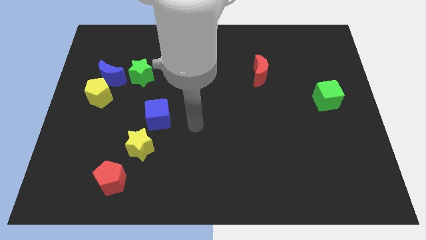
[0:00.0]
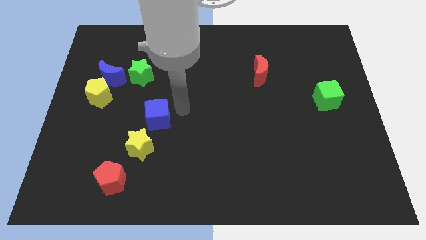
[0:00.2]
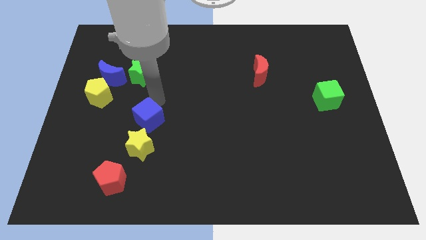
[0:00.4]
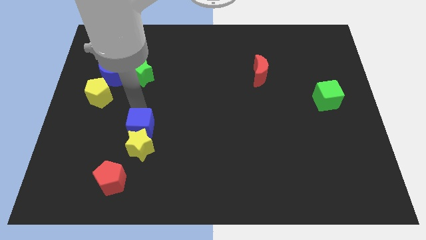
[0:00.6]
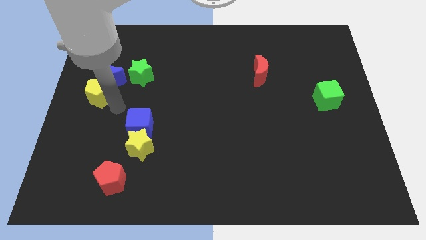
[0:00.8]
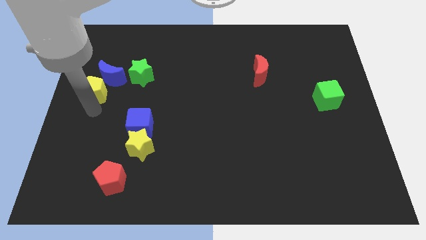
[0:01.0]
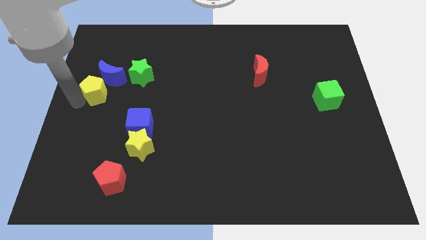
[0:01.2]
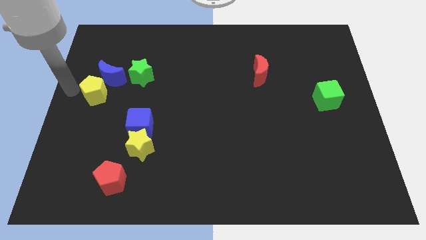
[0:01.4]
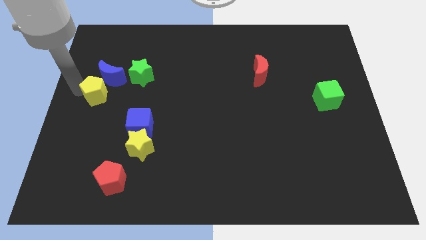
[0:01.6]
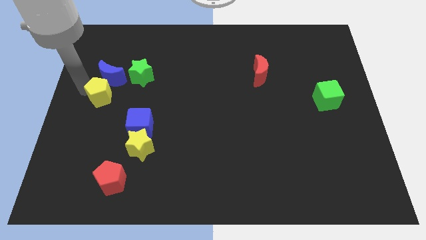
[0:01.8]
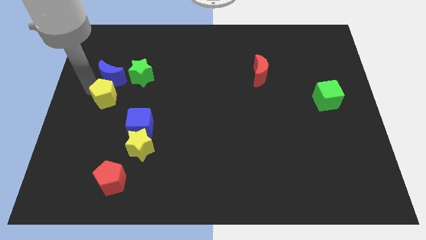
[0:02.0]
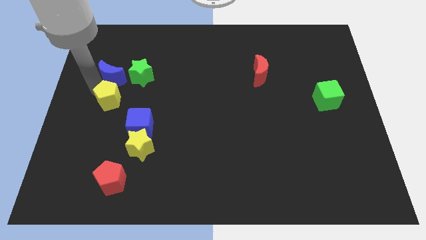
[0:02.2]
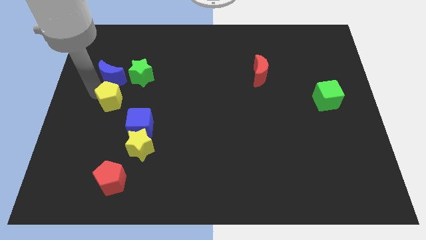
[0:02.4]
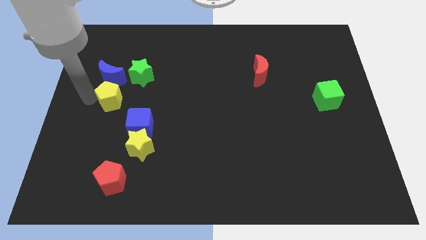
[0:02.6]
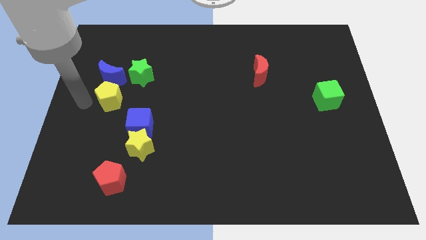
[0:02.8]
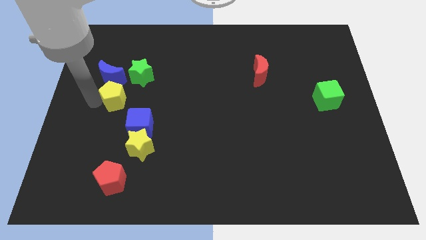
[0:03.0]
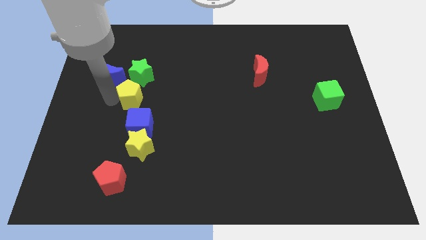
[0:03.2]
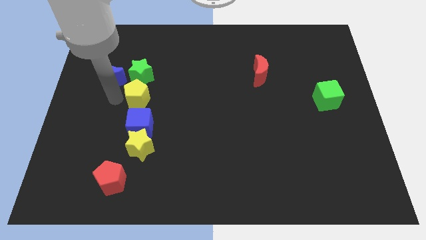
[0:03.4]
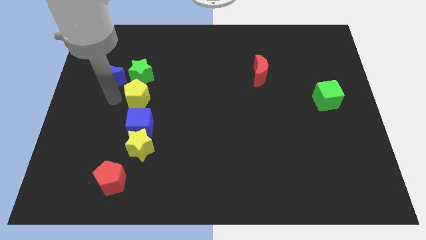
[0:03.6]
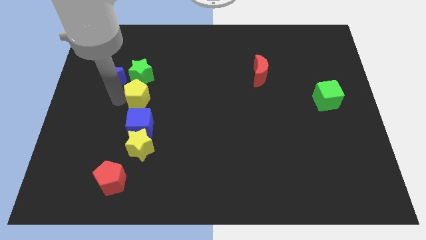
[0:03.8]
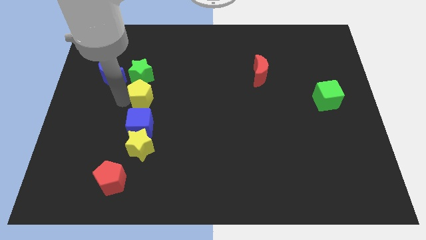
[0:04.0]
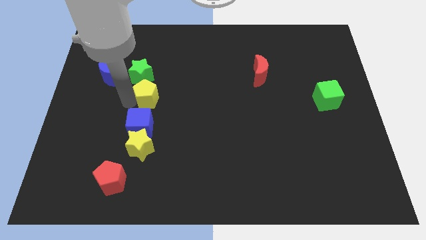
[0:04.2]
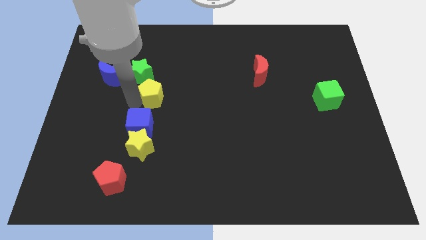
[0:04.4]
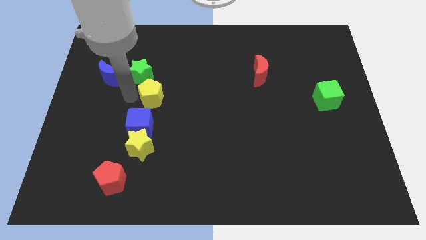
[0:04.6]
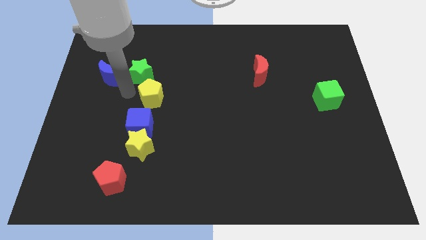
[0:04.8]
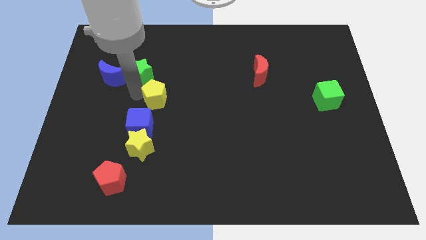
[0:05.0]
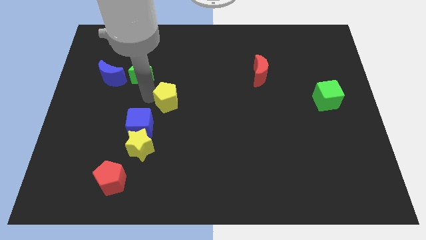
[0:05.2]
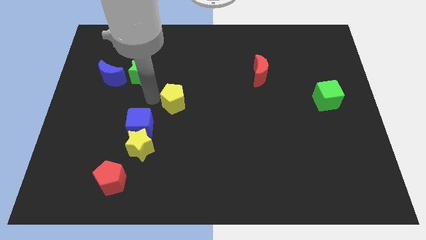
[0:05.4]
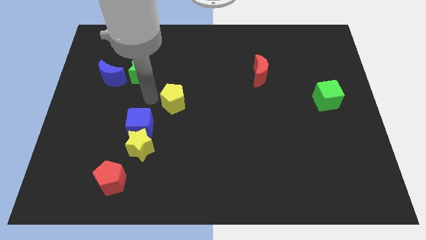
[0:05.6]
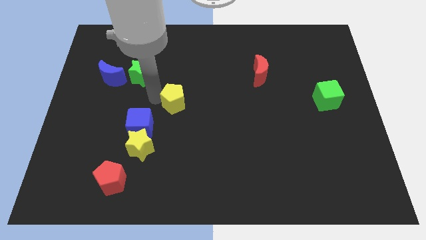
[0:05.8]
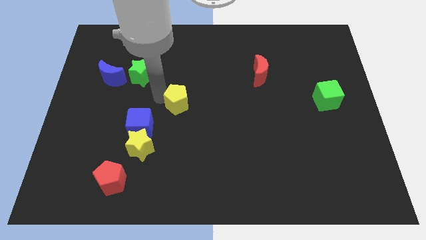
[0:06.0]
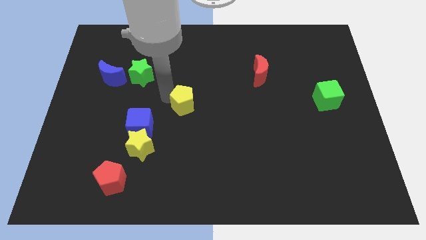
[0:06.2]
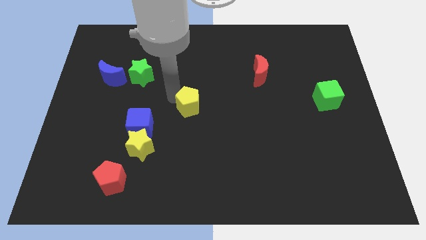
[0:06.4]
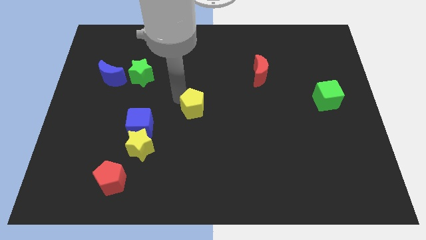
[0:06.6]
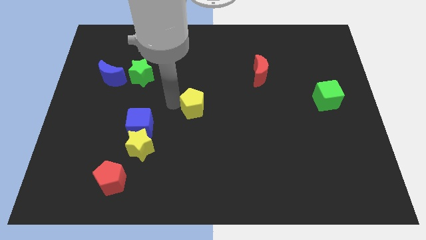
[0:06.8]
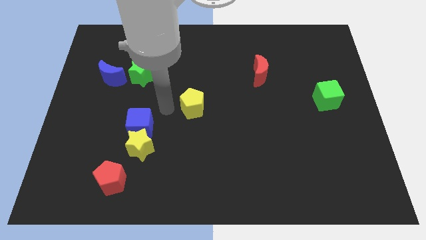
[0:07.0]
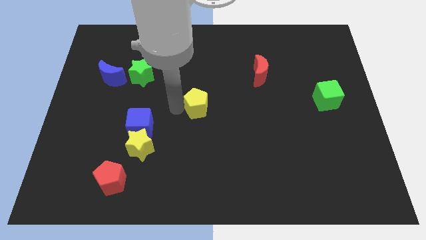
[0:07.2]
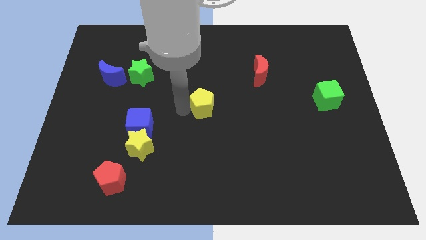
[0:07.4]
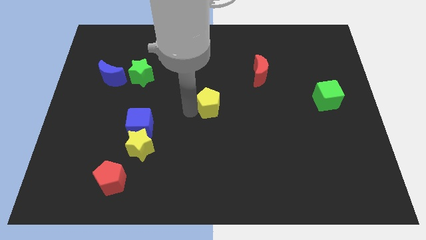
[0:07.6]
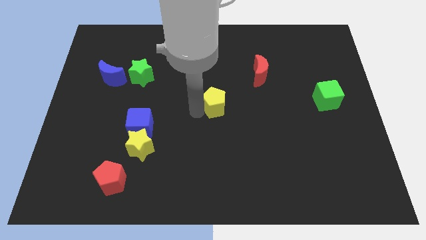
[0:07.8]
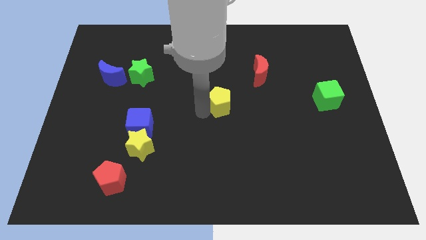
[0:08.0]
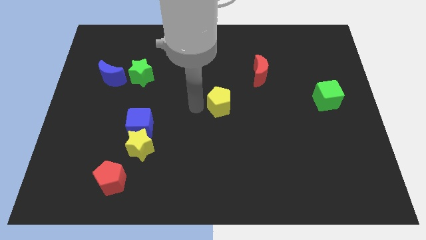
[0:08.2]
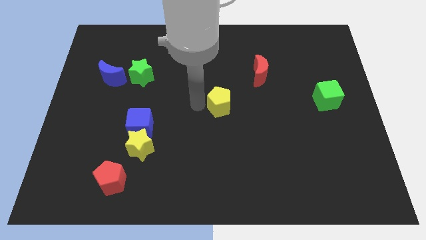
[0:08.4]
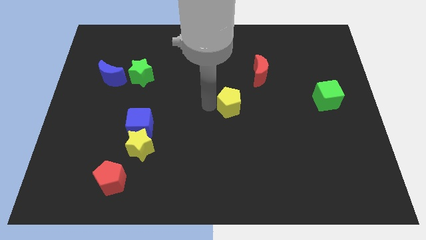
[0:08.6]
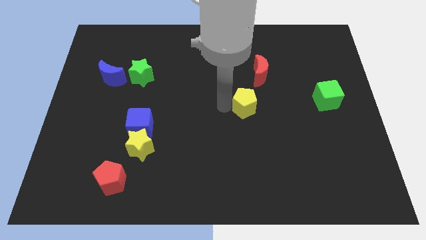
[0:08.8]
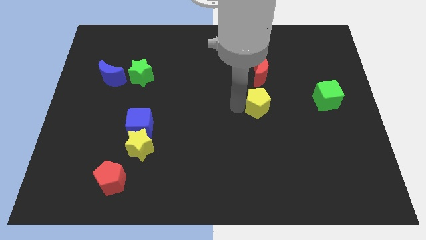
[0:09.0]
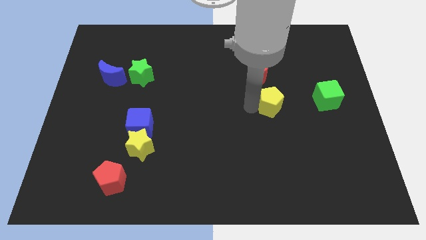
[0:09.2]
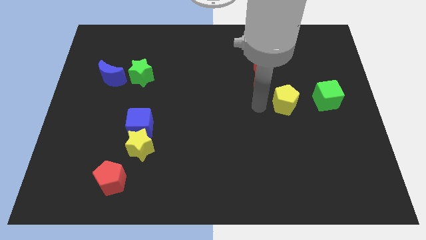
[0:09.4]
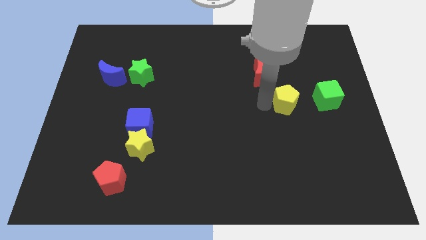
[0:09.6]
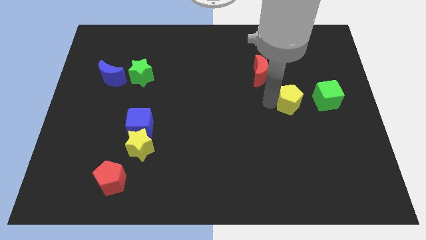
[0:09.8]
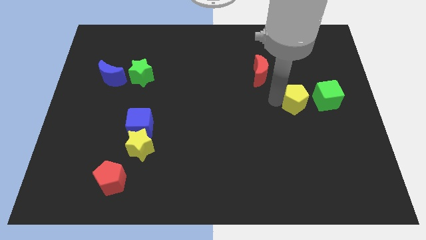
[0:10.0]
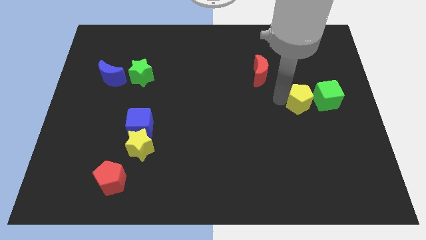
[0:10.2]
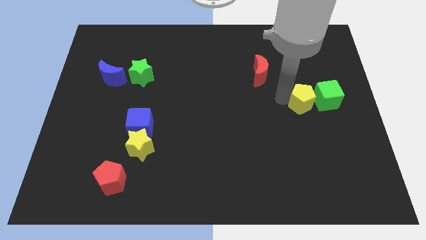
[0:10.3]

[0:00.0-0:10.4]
slide the yellow pentagon towards the green cube

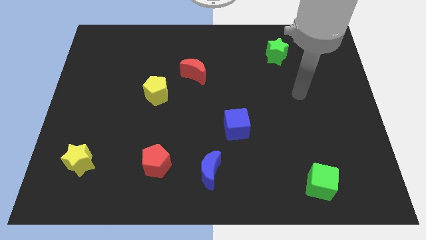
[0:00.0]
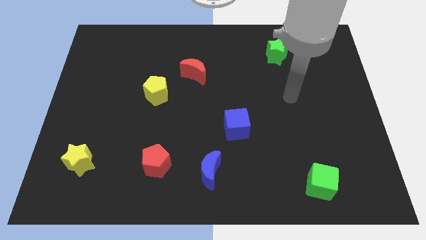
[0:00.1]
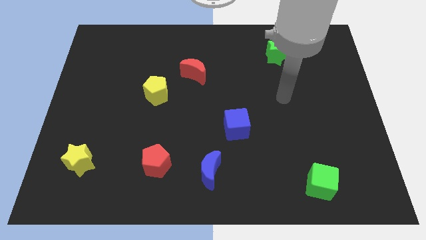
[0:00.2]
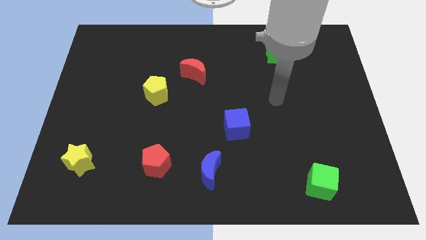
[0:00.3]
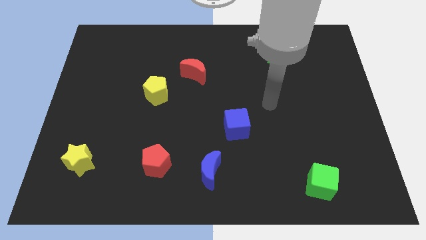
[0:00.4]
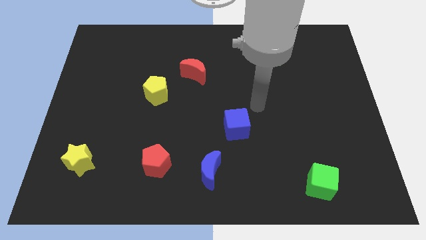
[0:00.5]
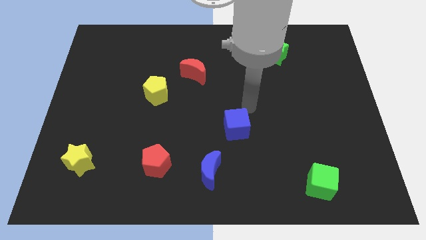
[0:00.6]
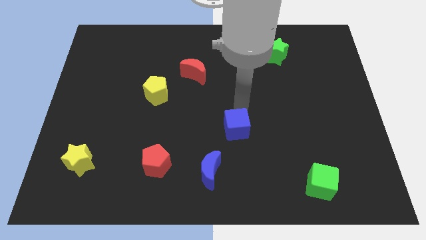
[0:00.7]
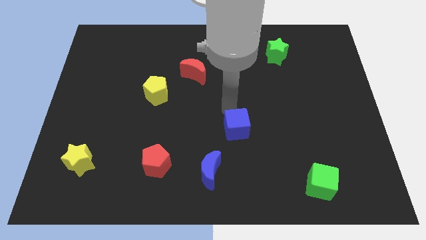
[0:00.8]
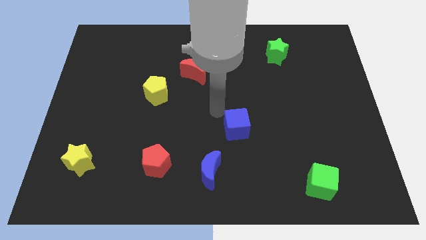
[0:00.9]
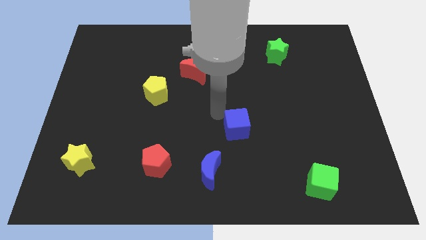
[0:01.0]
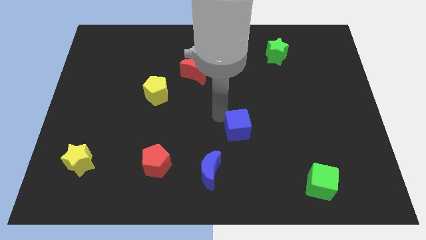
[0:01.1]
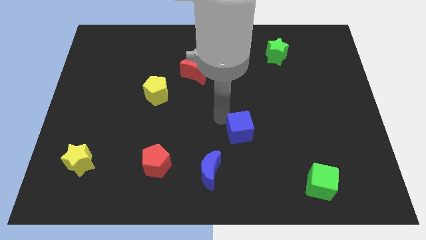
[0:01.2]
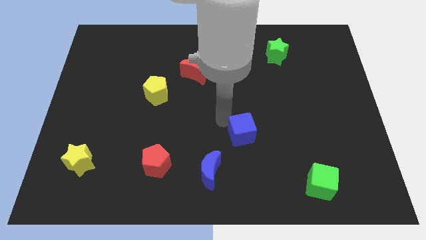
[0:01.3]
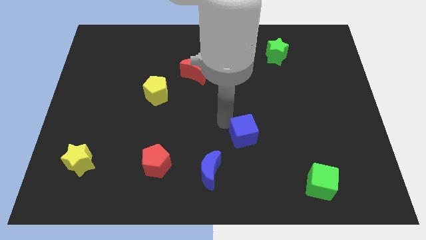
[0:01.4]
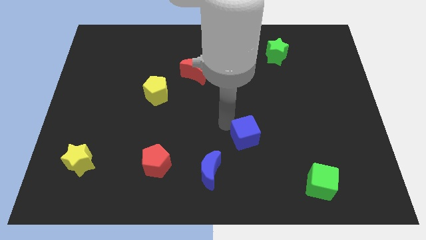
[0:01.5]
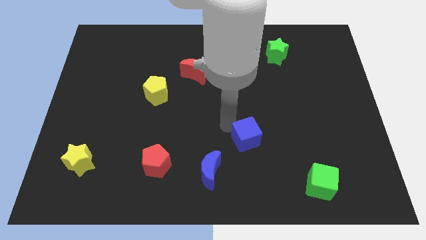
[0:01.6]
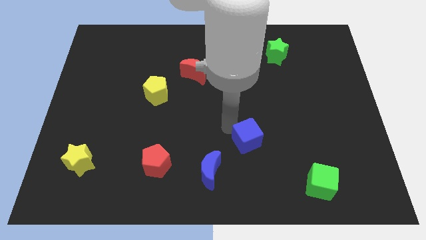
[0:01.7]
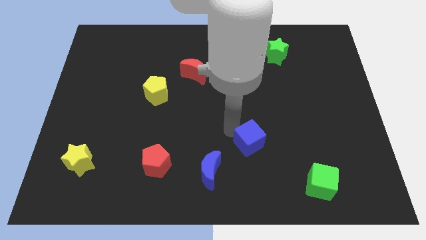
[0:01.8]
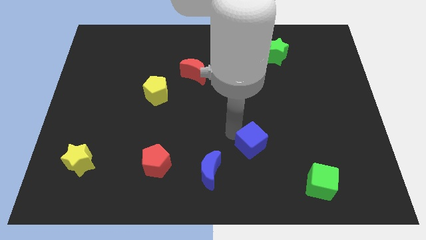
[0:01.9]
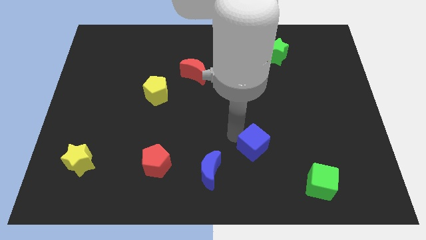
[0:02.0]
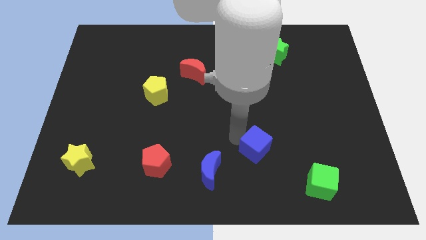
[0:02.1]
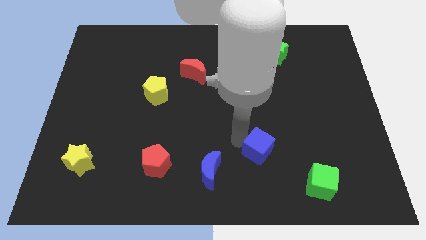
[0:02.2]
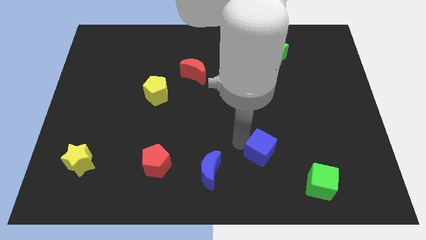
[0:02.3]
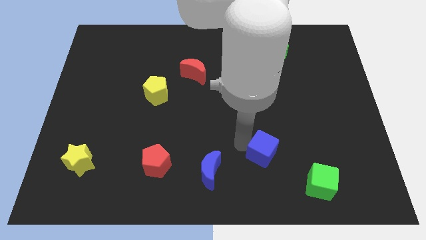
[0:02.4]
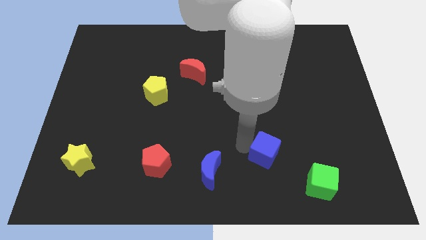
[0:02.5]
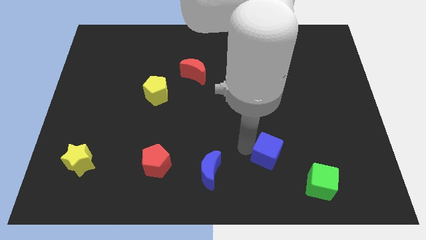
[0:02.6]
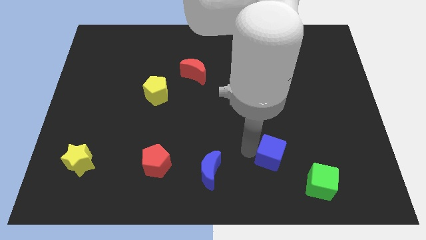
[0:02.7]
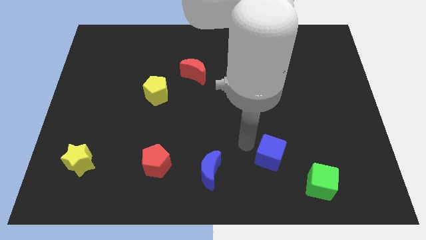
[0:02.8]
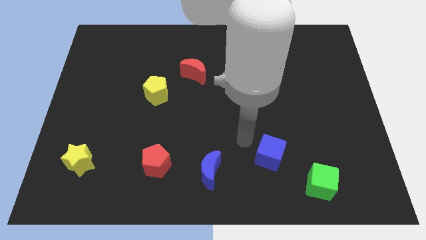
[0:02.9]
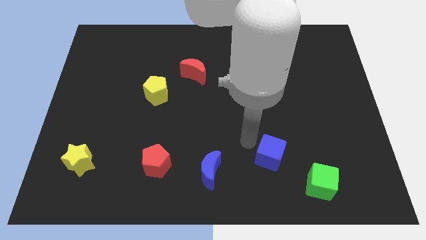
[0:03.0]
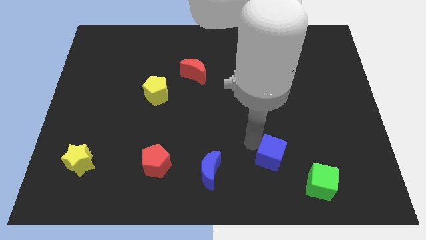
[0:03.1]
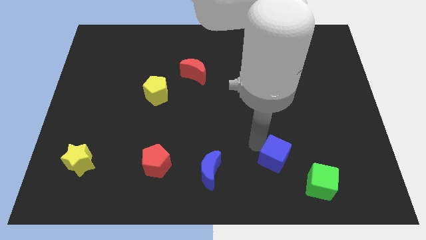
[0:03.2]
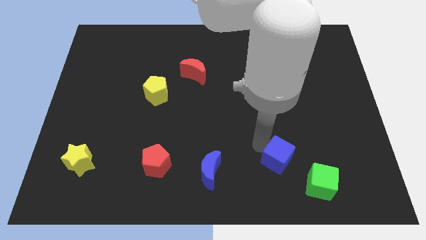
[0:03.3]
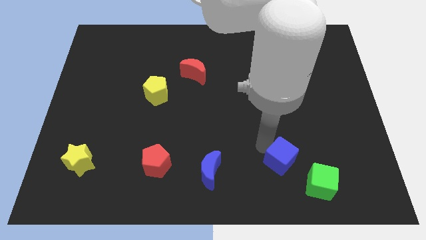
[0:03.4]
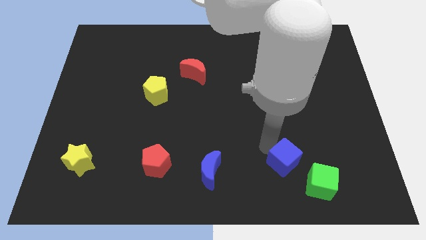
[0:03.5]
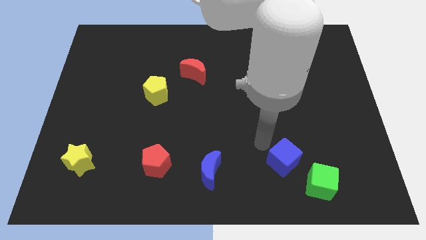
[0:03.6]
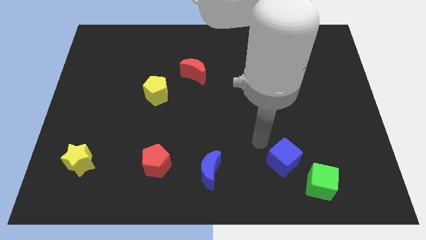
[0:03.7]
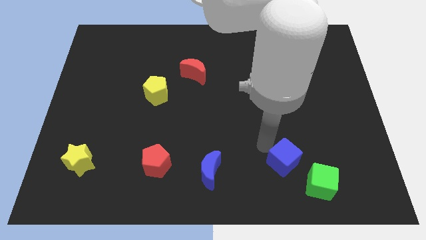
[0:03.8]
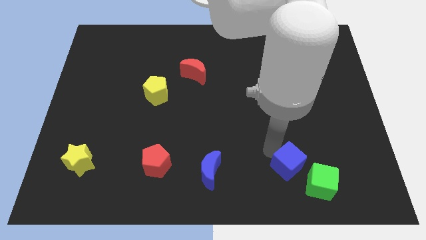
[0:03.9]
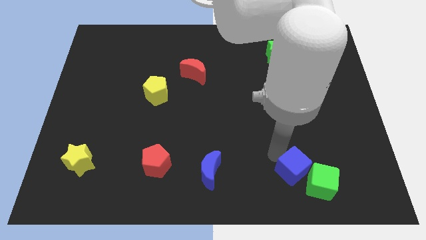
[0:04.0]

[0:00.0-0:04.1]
slide the blue cube to the green cube
